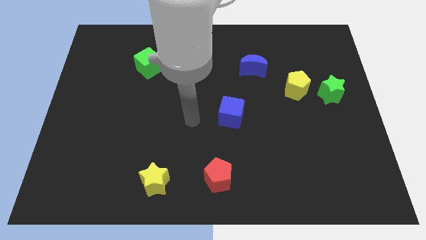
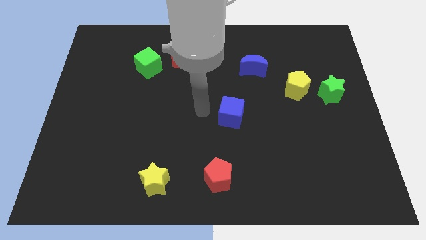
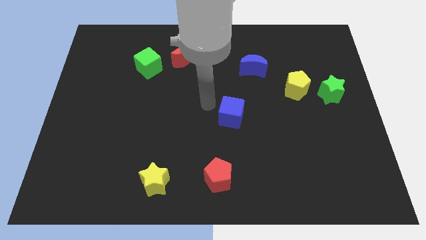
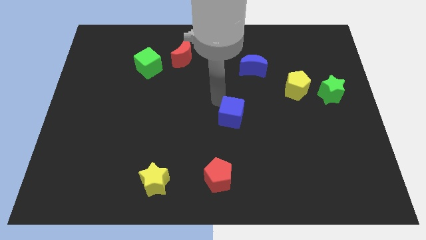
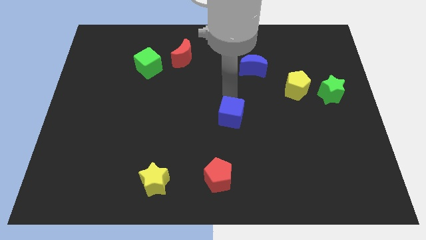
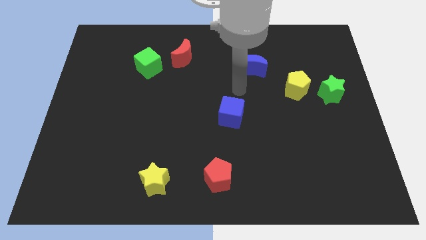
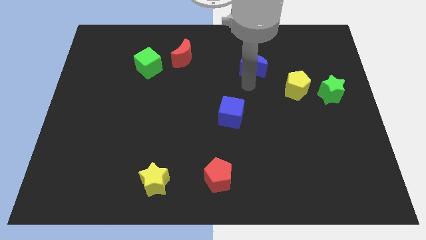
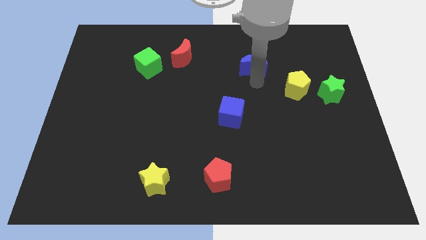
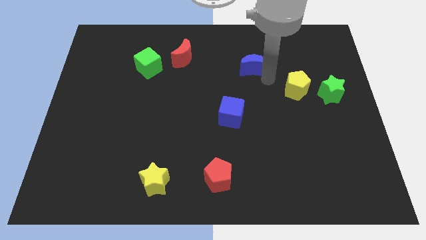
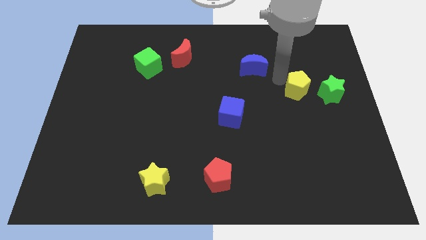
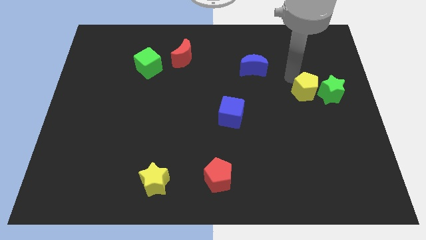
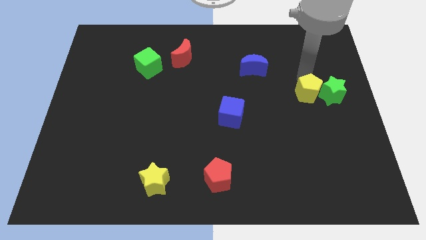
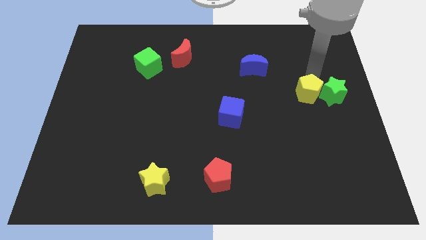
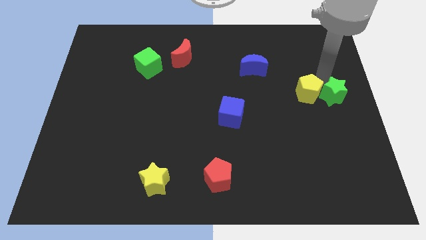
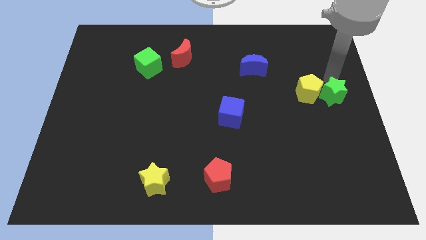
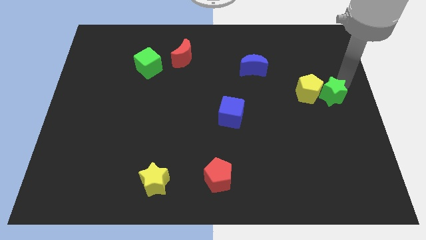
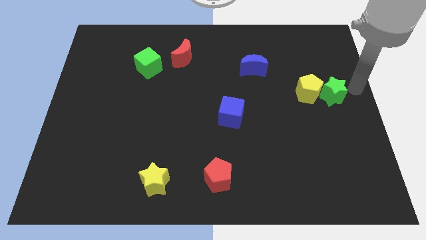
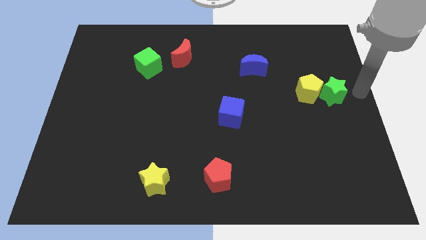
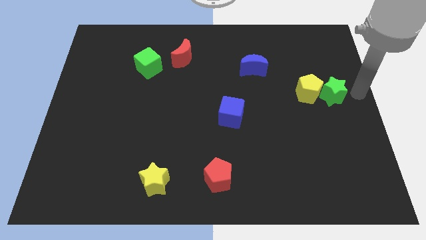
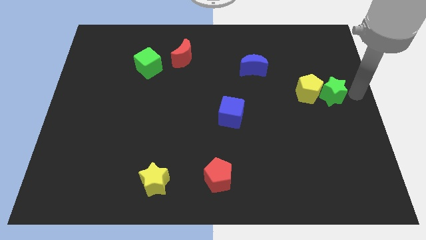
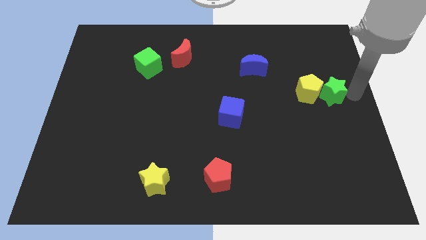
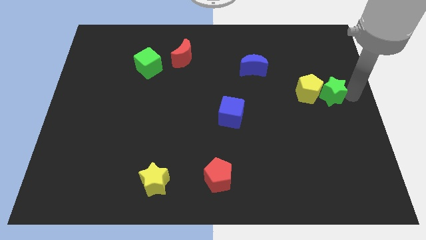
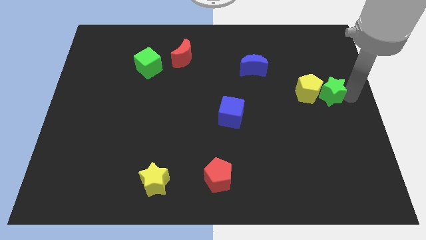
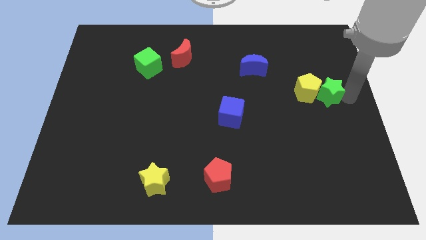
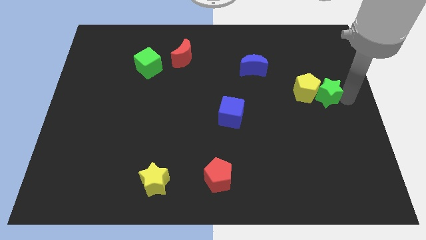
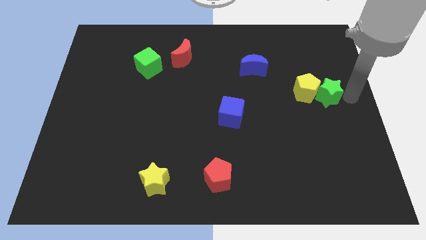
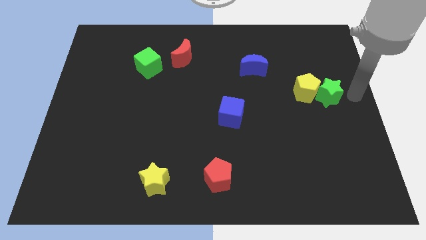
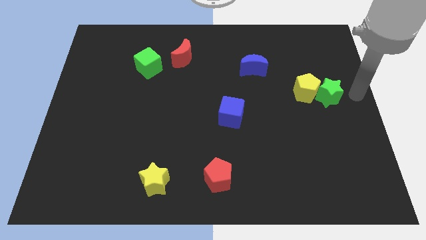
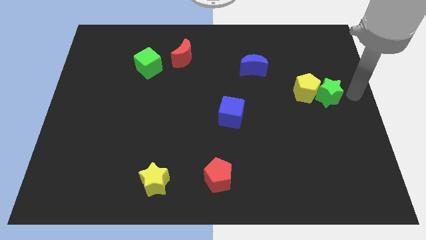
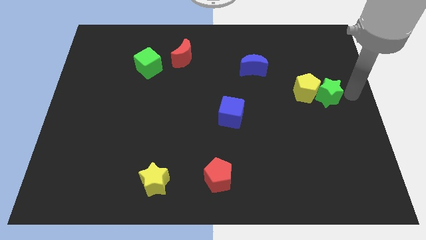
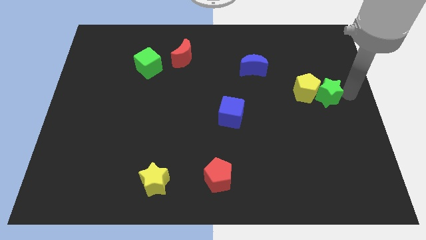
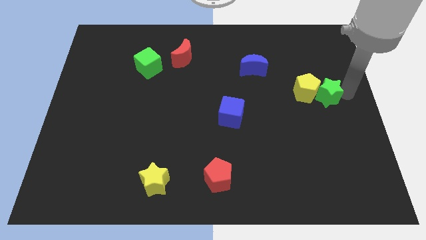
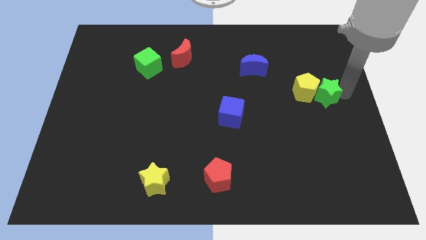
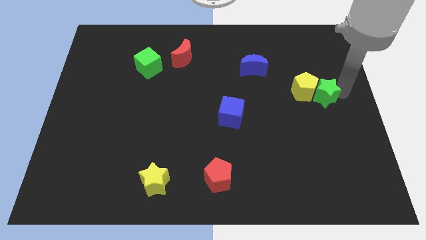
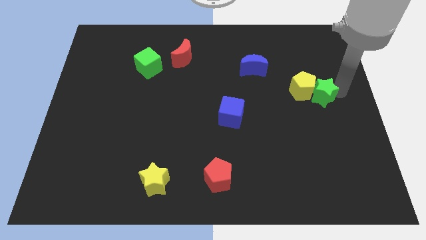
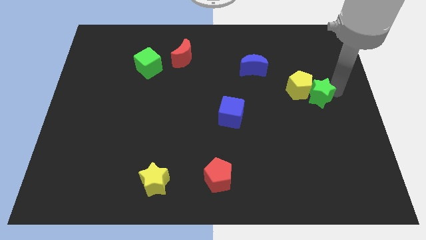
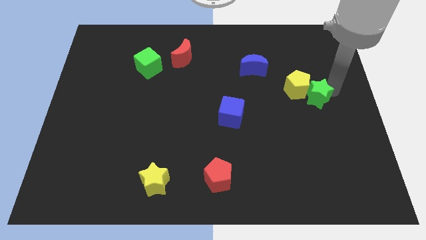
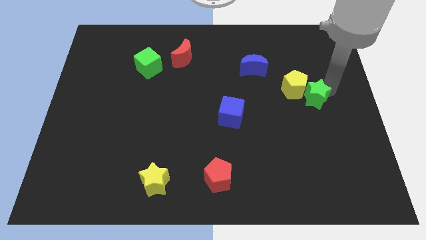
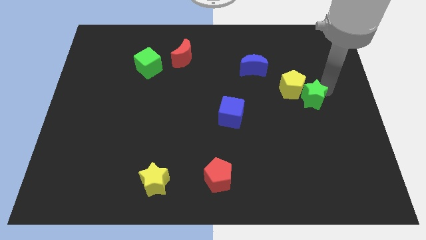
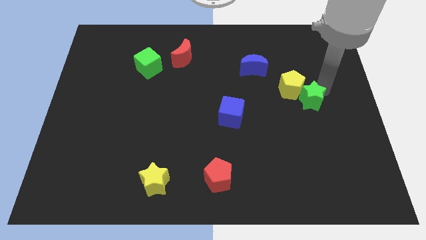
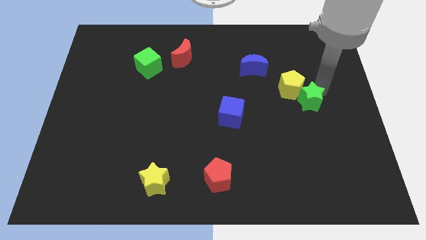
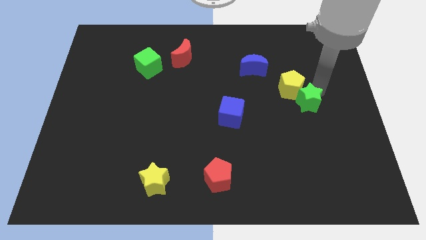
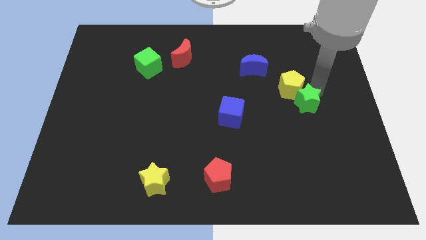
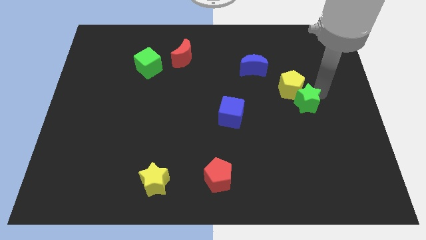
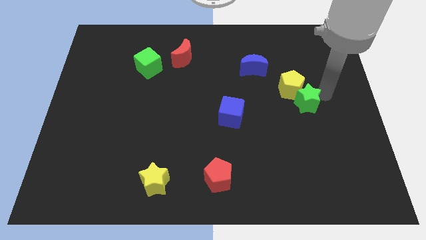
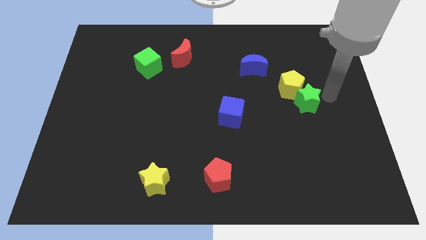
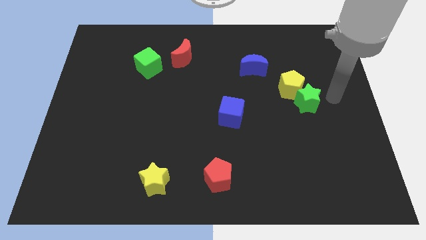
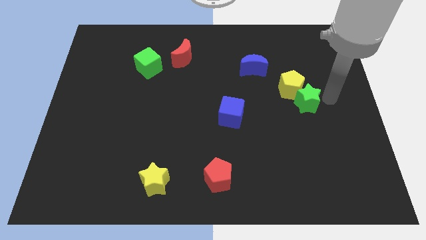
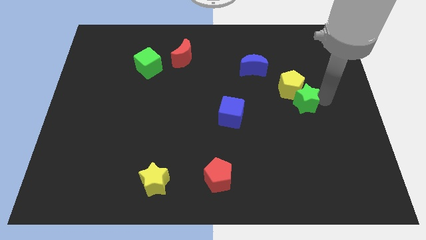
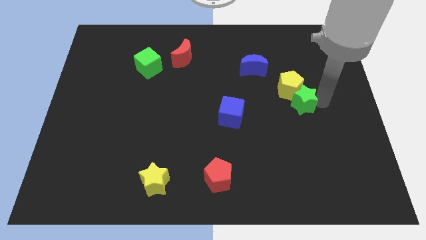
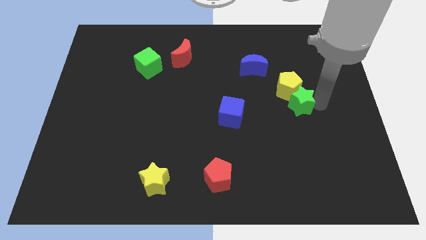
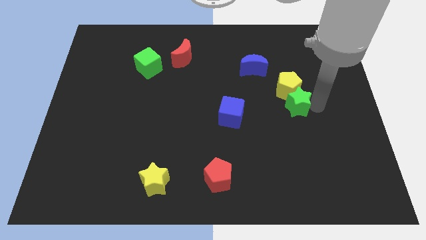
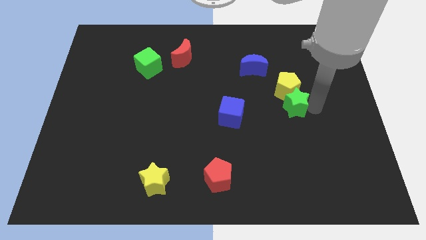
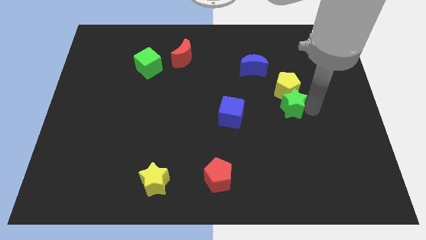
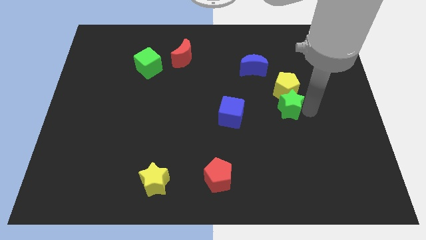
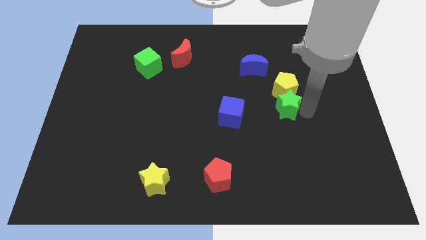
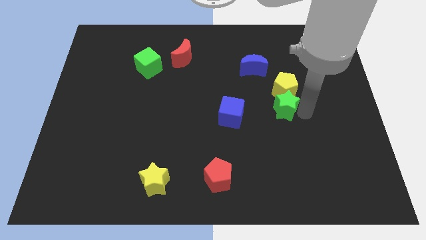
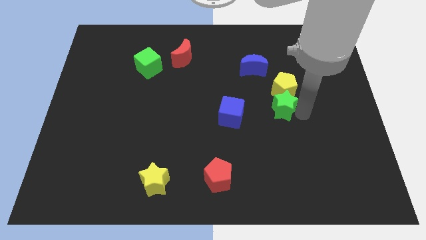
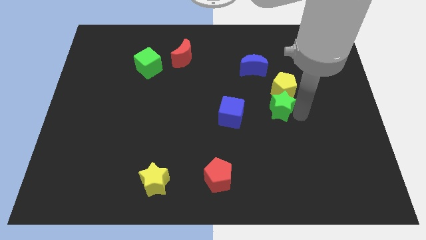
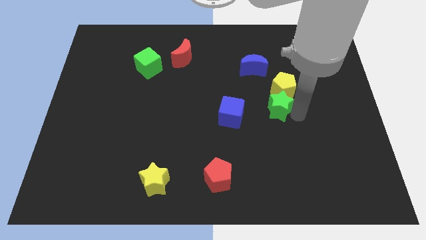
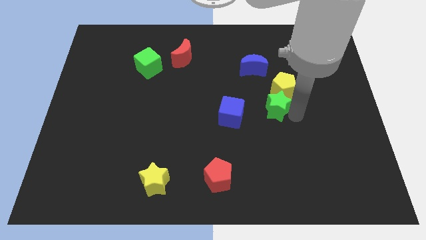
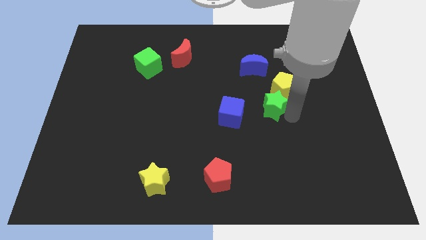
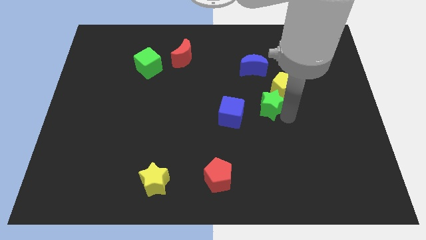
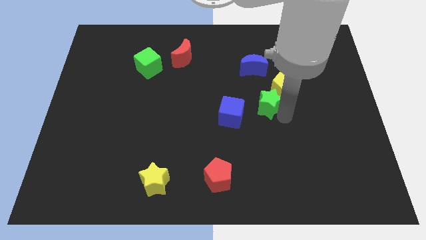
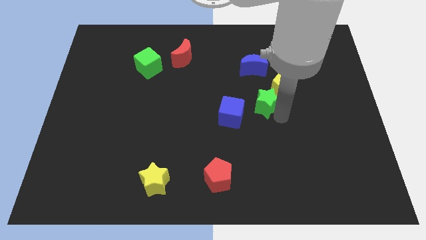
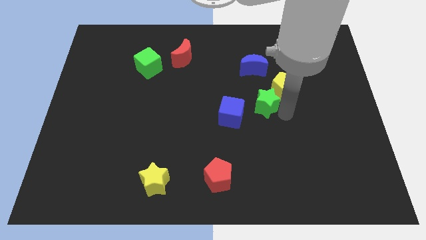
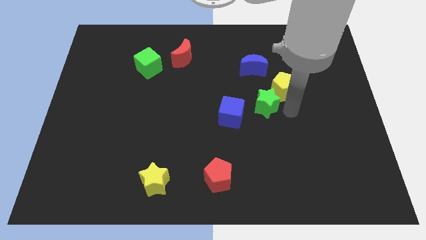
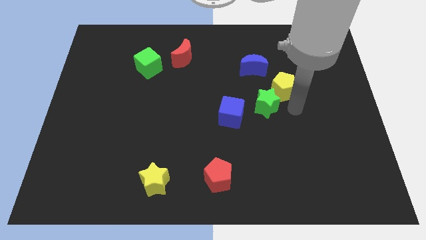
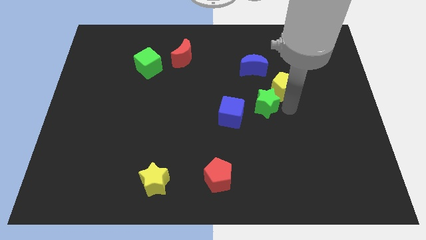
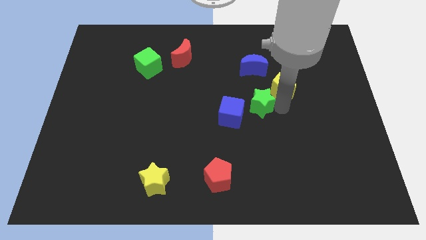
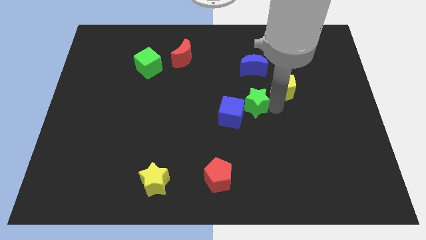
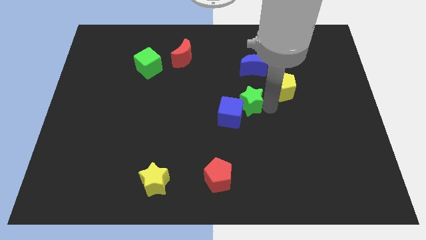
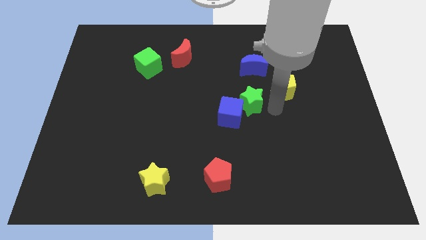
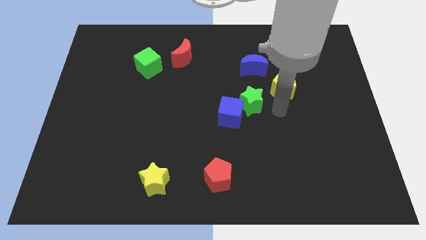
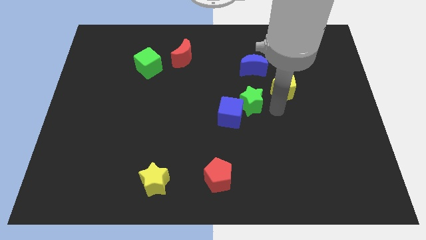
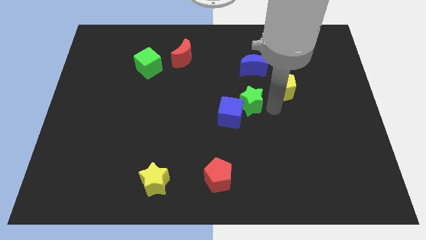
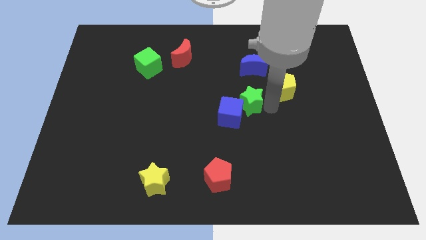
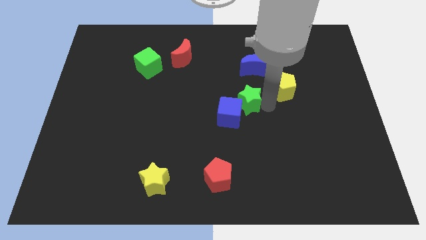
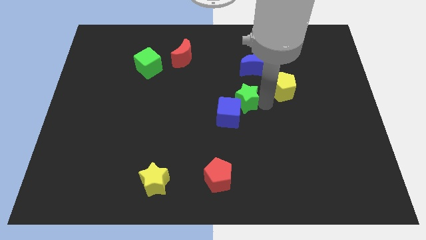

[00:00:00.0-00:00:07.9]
push the green star left
